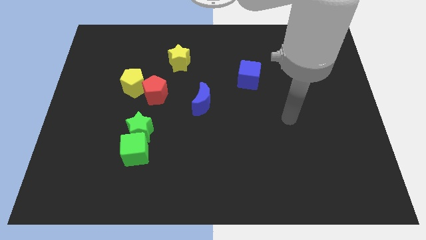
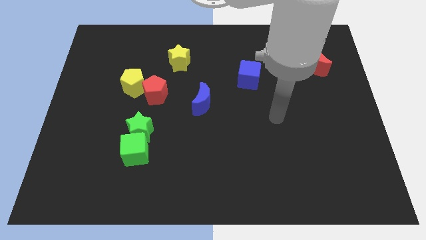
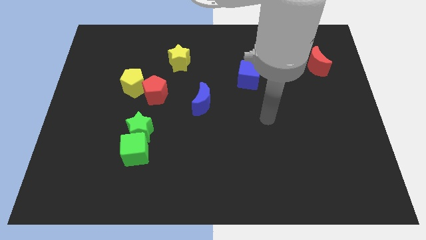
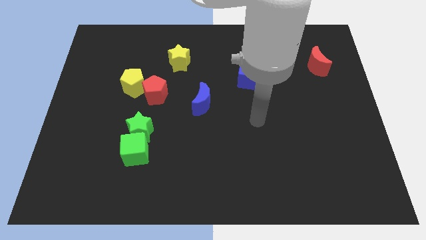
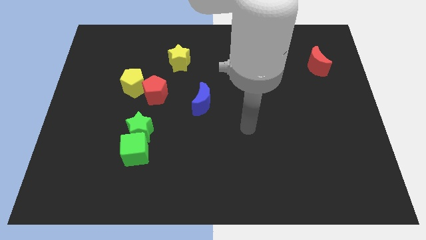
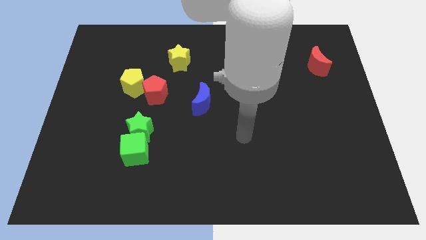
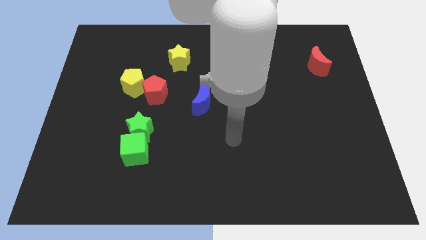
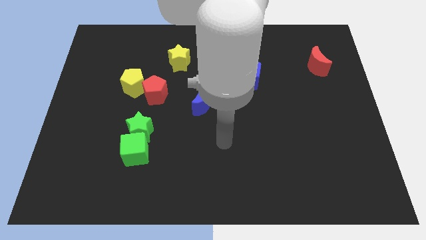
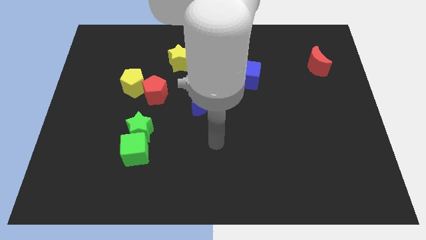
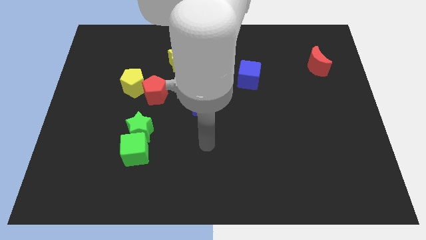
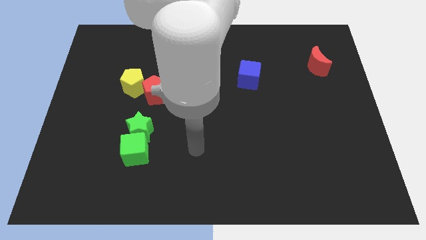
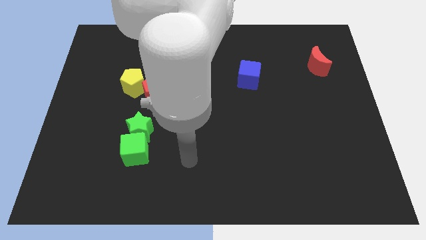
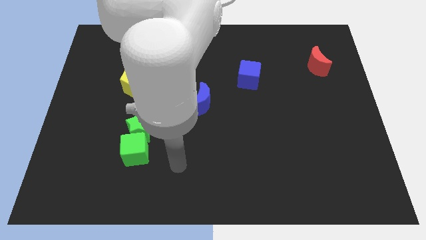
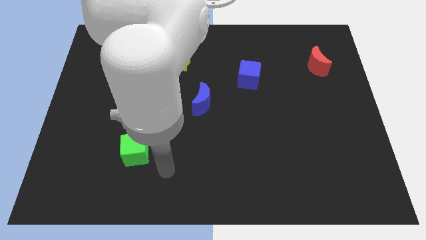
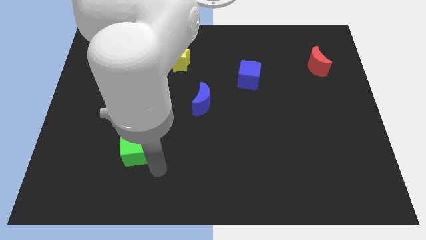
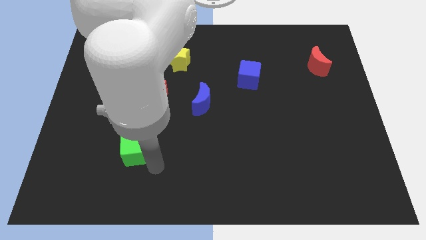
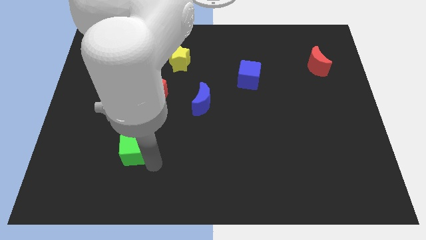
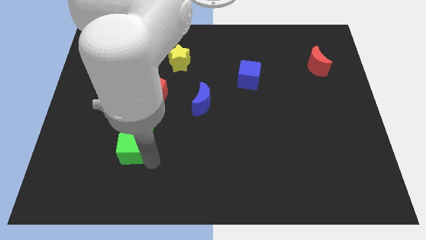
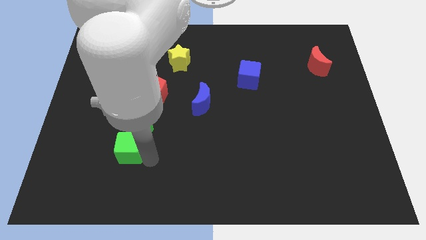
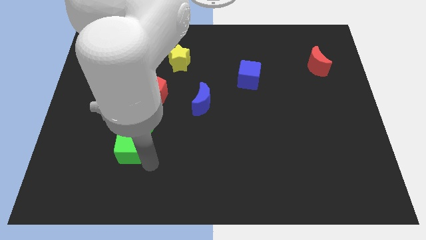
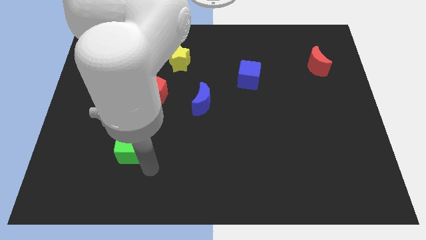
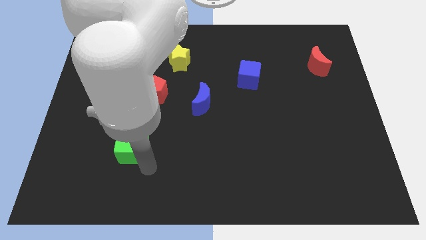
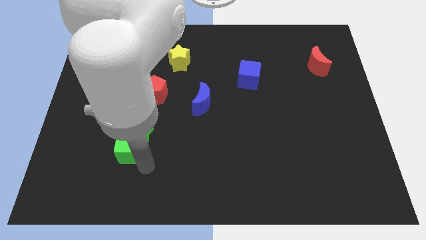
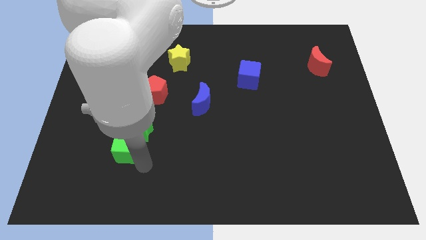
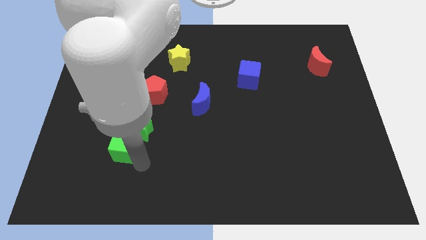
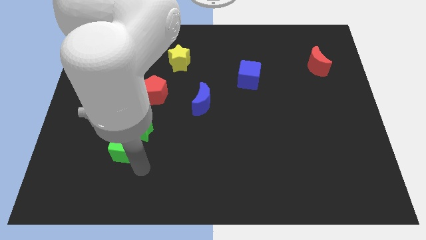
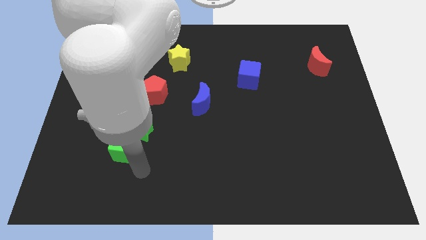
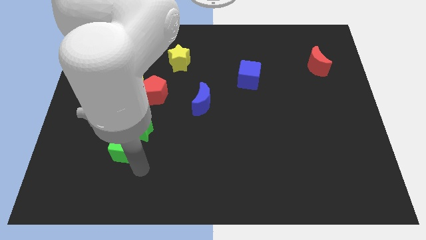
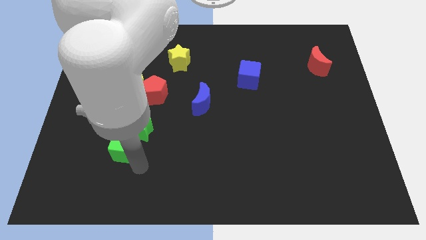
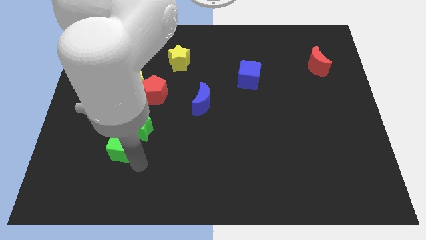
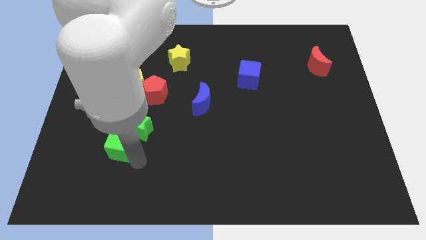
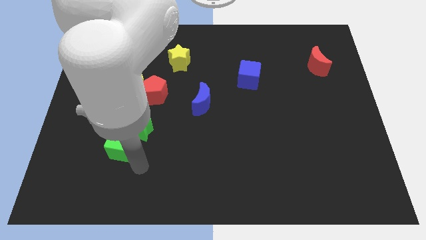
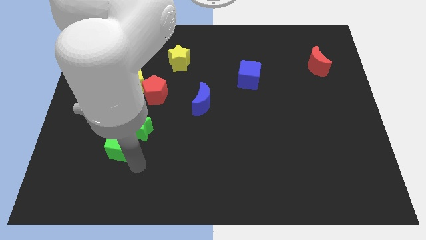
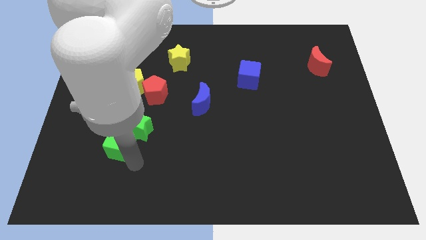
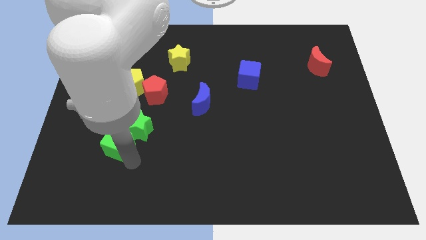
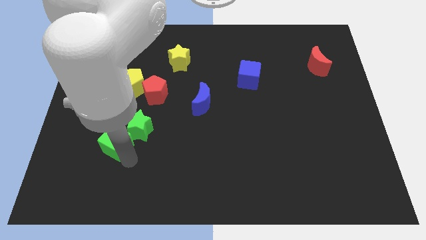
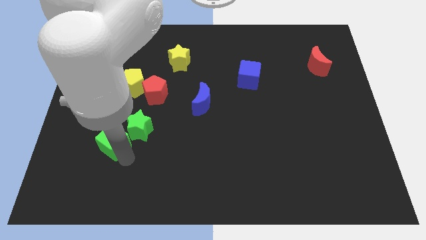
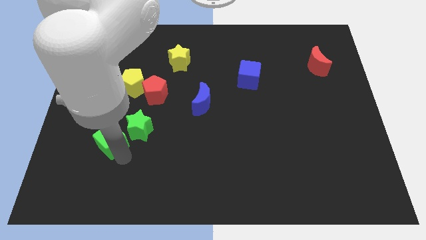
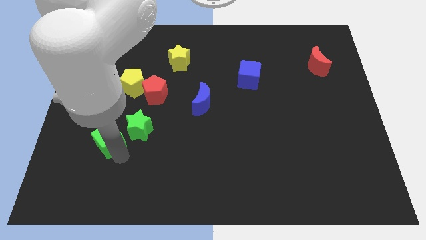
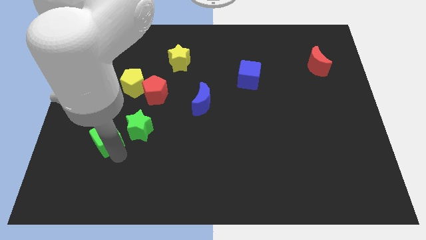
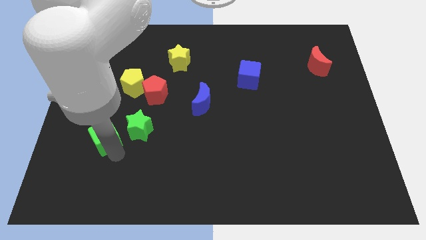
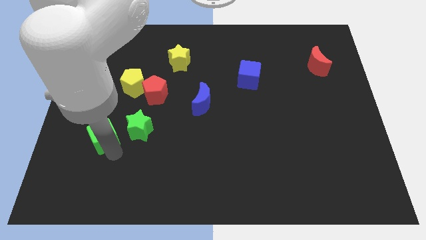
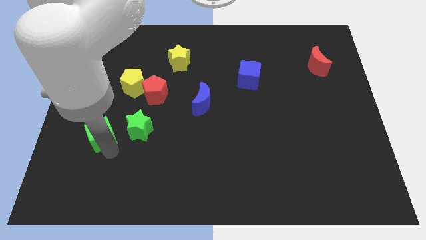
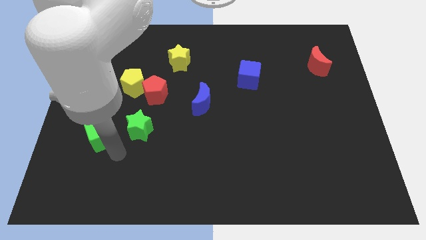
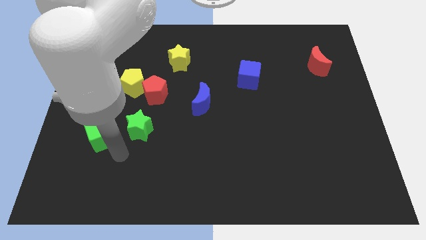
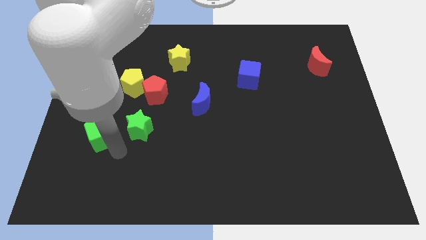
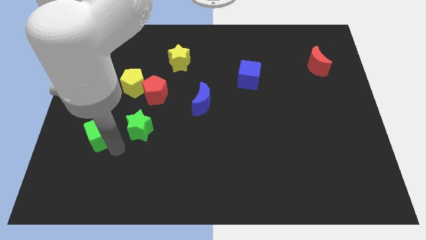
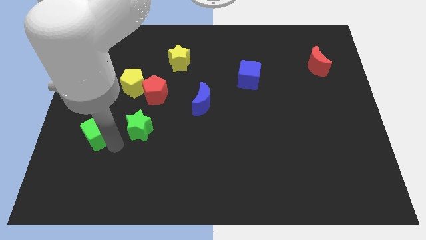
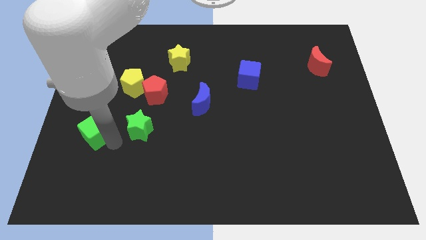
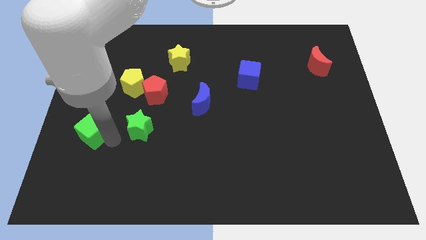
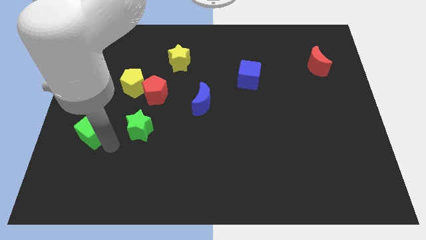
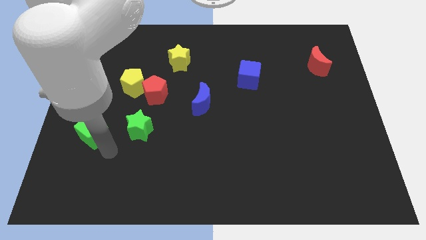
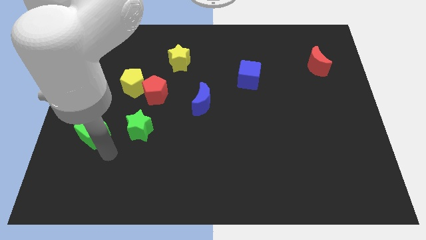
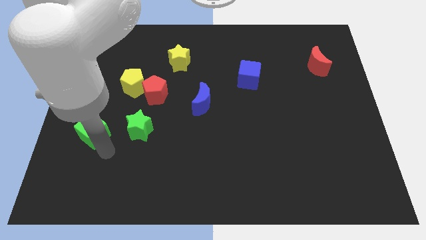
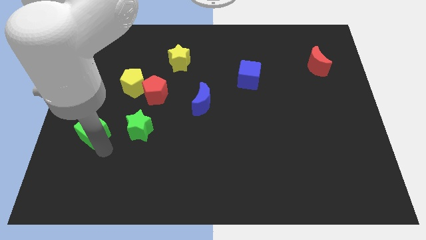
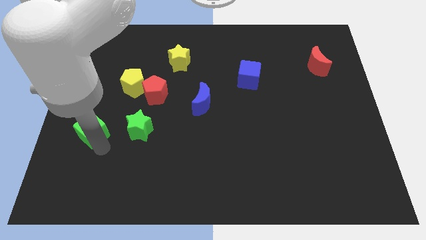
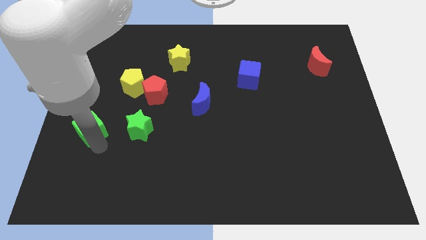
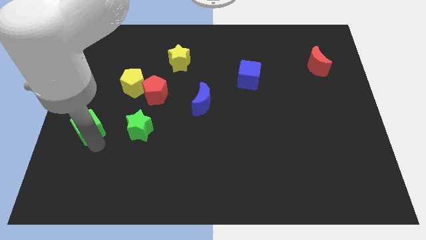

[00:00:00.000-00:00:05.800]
push the green cube to the left side

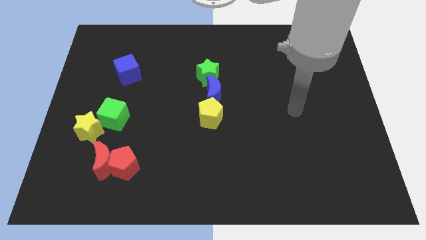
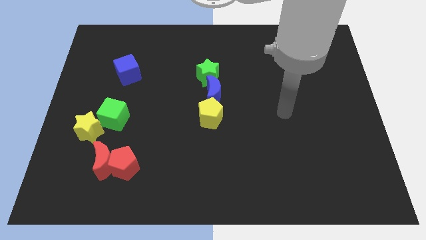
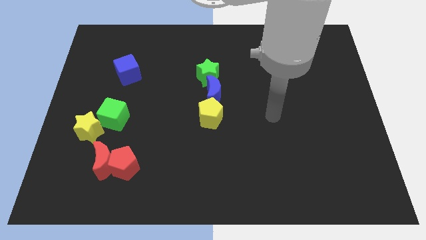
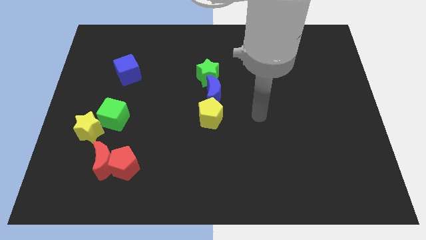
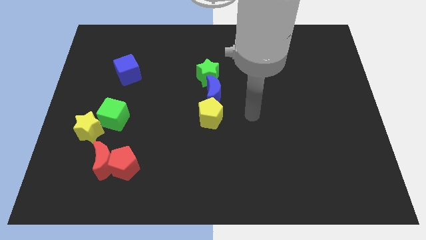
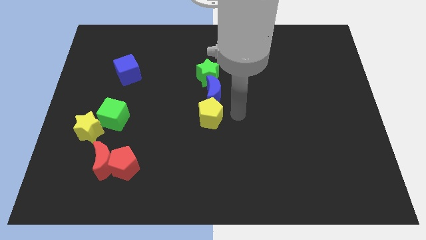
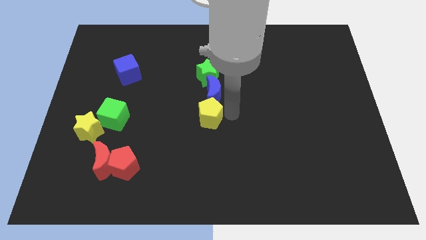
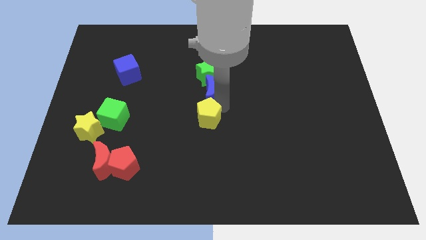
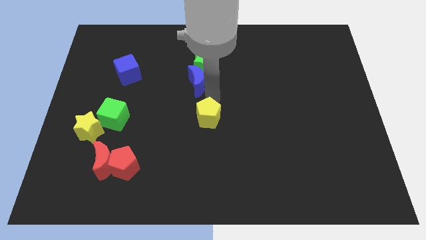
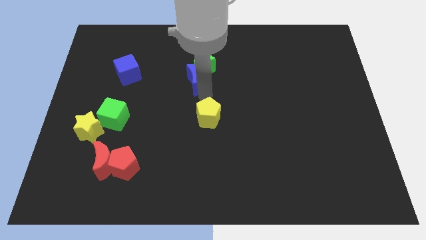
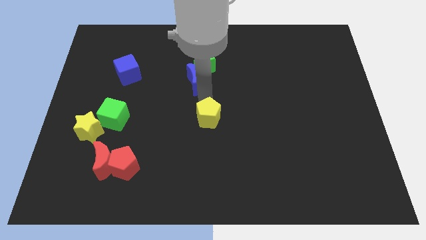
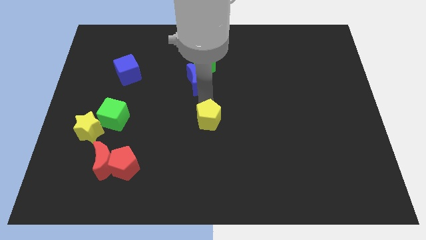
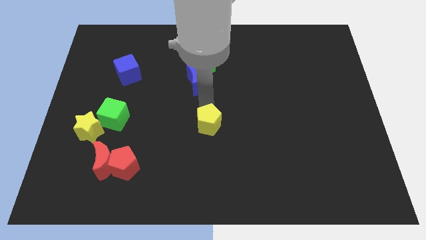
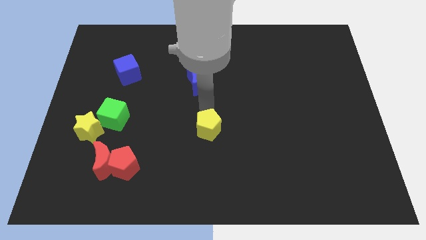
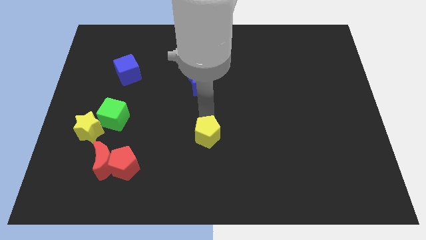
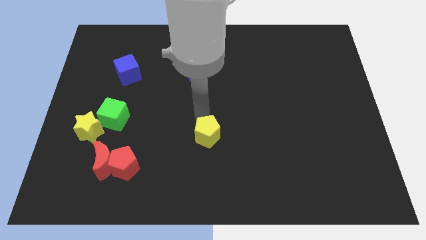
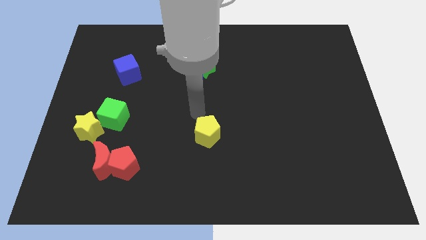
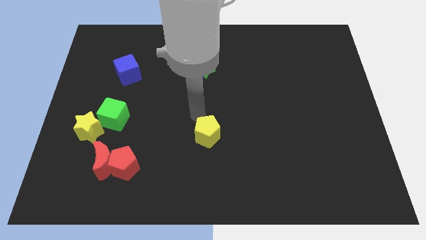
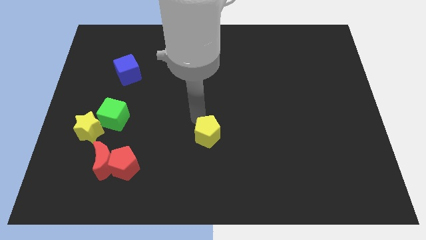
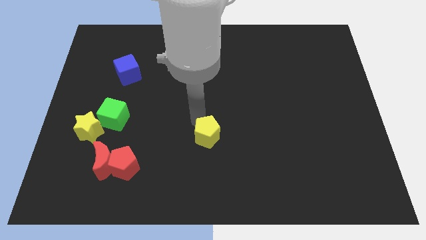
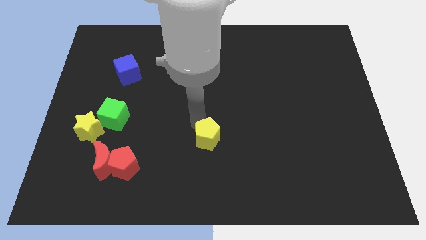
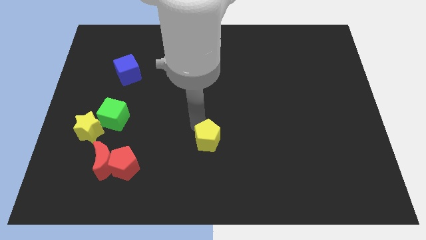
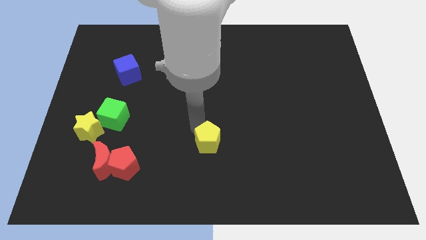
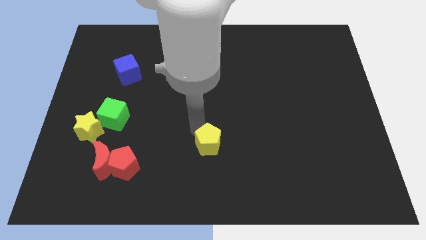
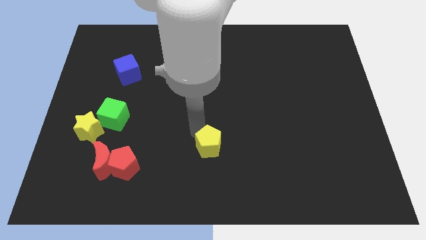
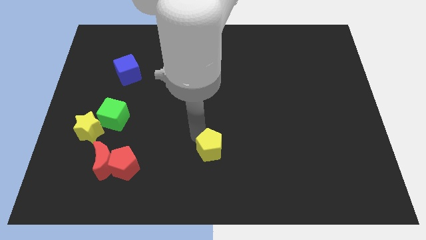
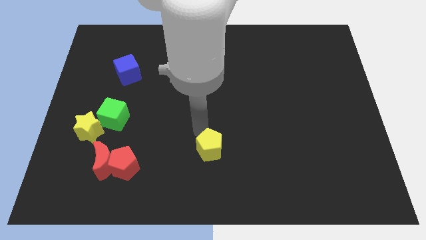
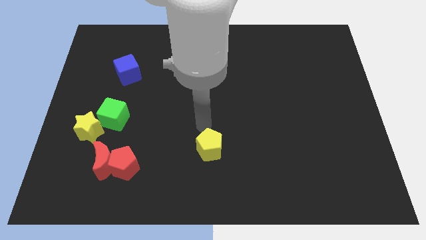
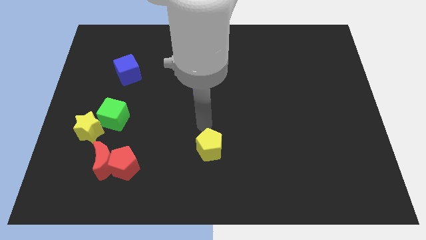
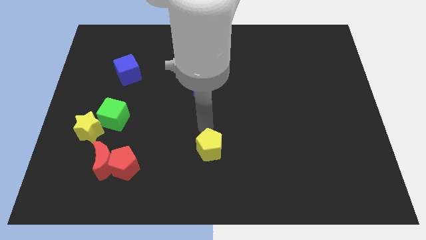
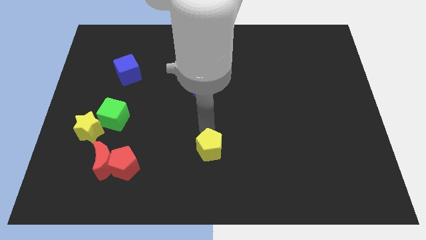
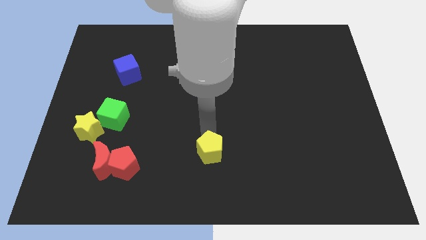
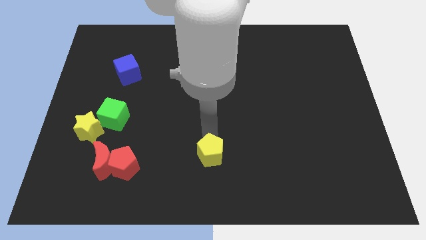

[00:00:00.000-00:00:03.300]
move the yellow pentagon to the bottom
